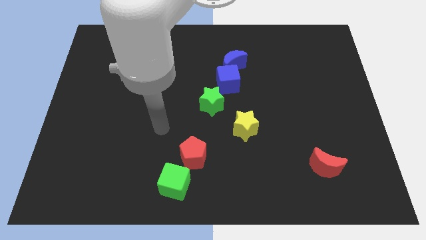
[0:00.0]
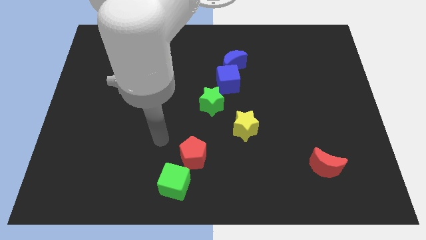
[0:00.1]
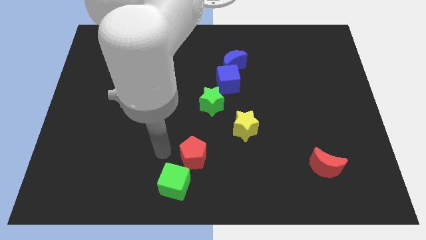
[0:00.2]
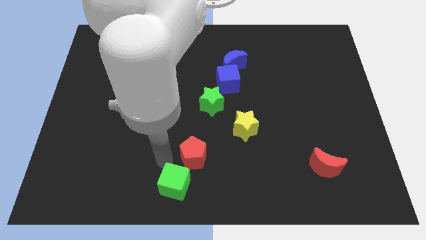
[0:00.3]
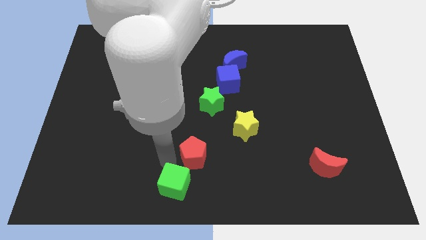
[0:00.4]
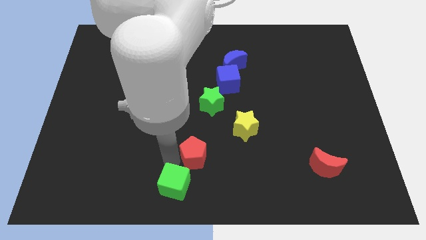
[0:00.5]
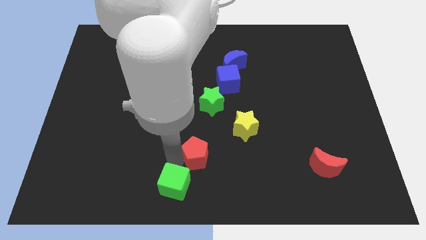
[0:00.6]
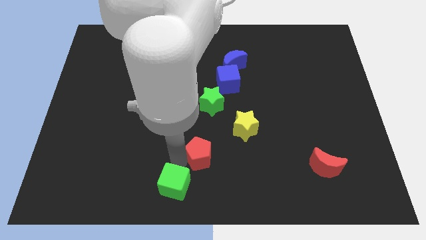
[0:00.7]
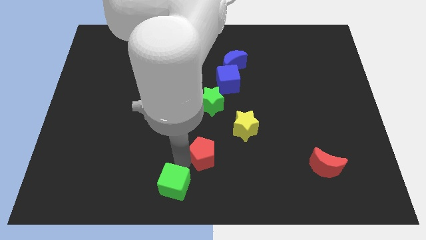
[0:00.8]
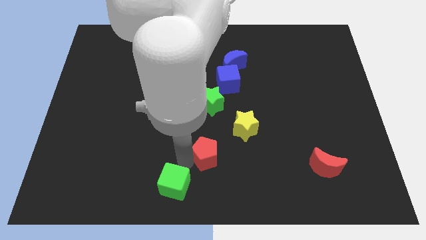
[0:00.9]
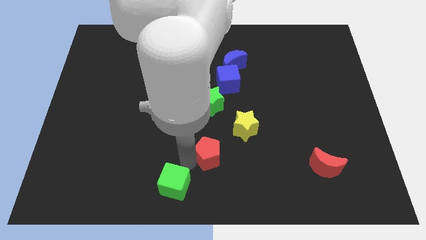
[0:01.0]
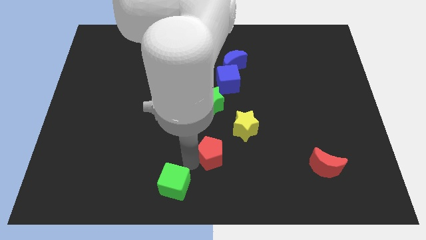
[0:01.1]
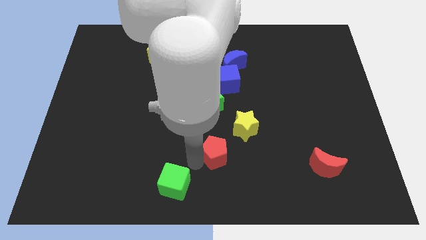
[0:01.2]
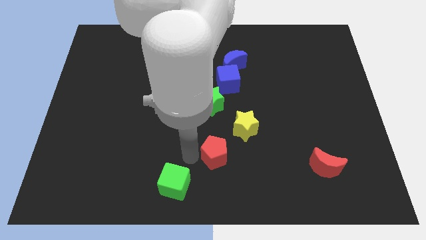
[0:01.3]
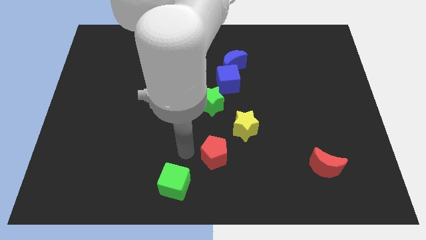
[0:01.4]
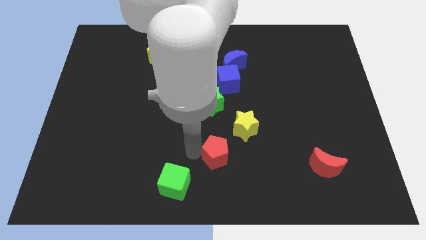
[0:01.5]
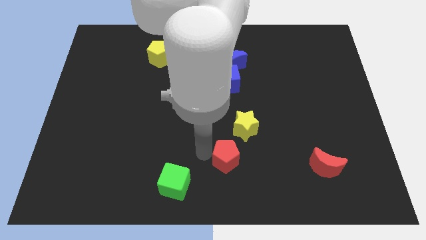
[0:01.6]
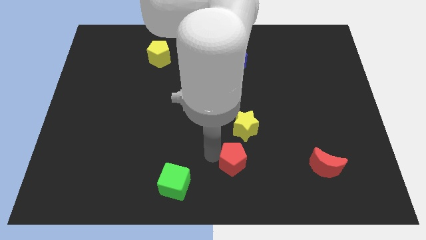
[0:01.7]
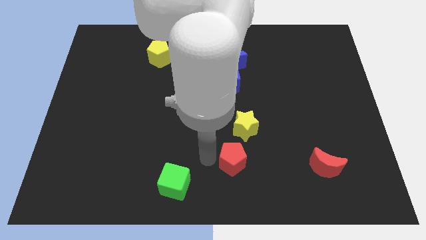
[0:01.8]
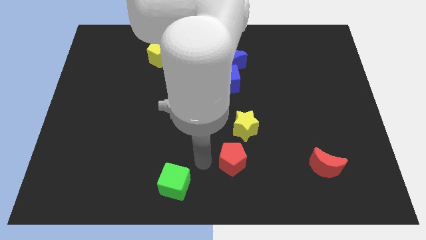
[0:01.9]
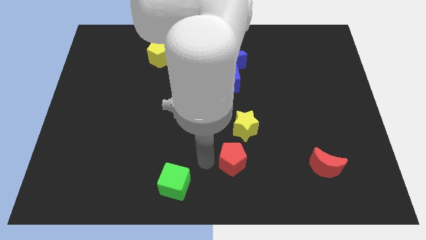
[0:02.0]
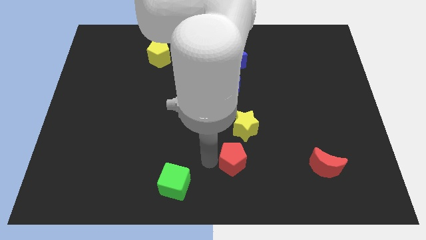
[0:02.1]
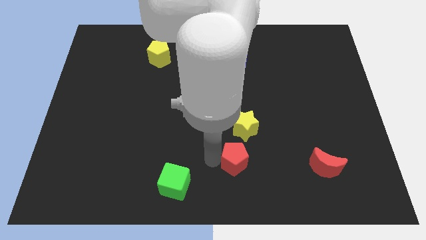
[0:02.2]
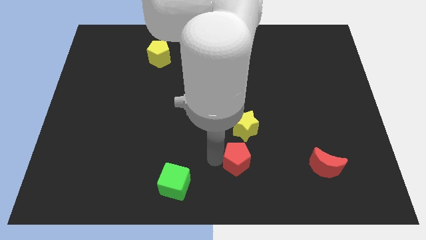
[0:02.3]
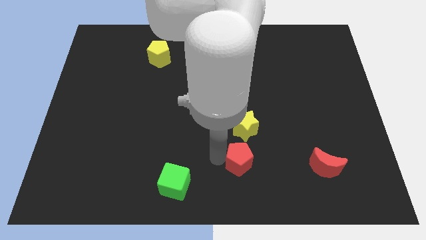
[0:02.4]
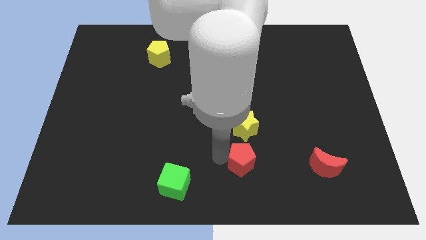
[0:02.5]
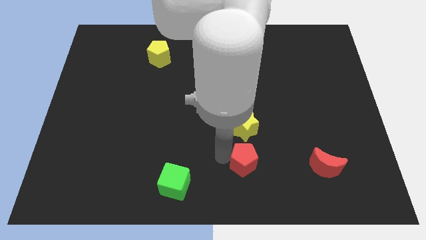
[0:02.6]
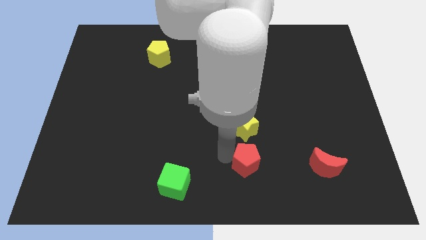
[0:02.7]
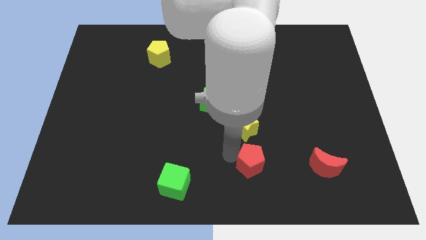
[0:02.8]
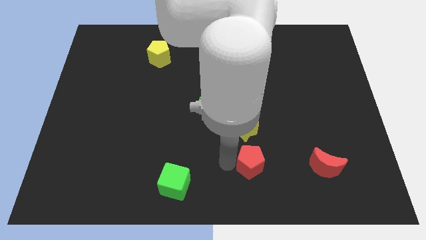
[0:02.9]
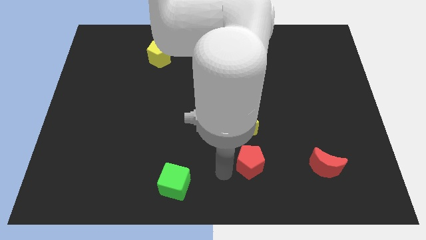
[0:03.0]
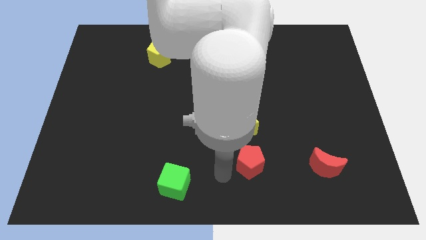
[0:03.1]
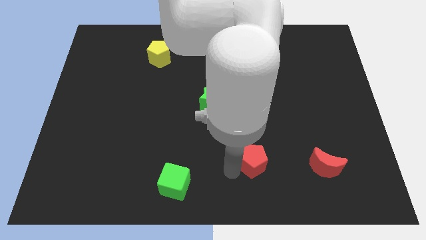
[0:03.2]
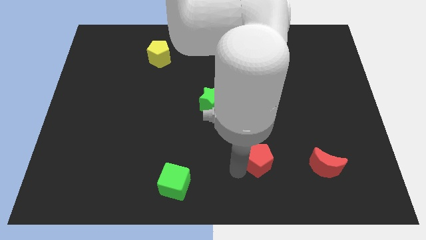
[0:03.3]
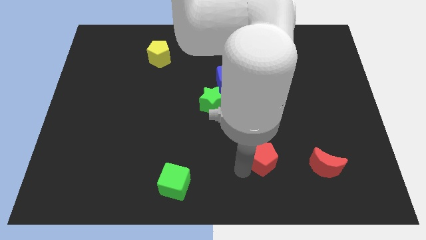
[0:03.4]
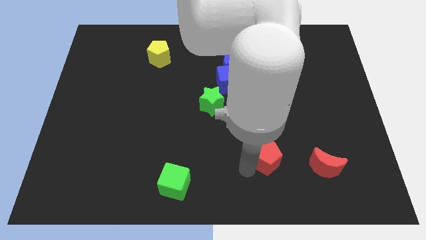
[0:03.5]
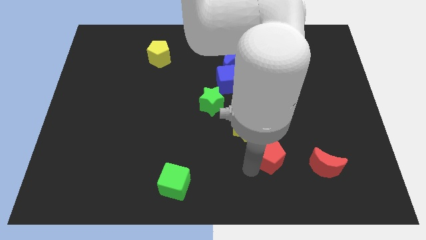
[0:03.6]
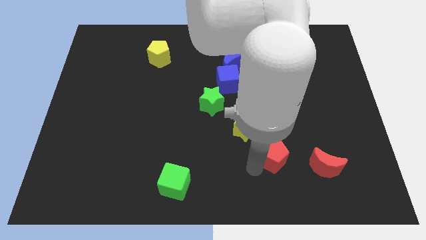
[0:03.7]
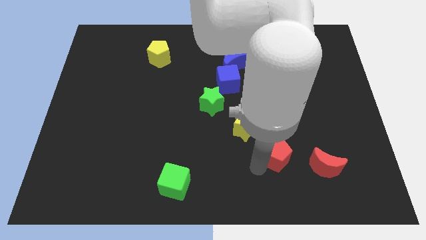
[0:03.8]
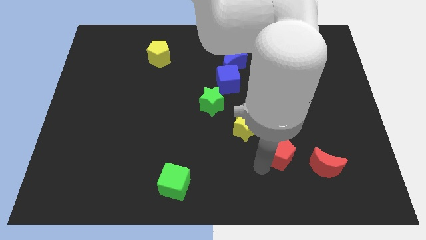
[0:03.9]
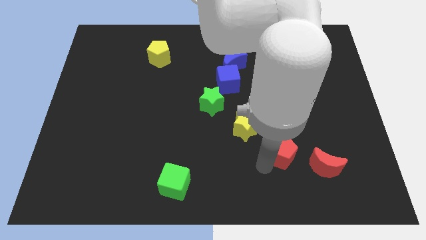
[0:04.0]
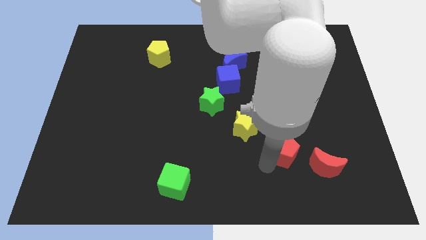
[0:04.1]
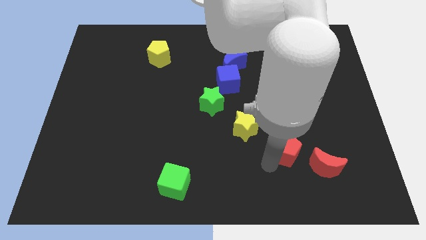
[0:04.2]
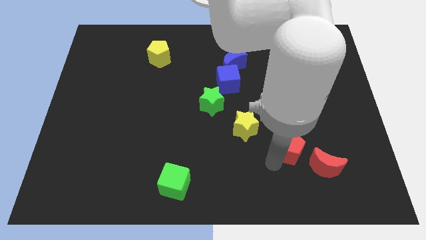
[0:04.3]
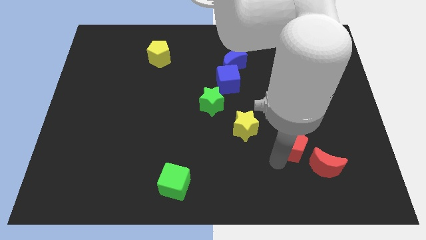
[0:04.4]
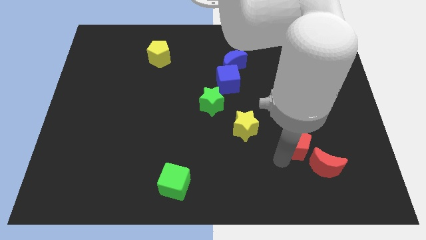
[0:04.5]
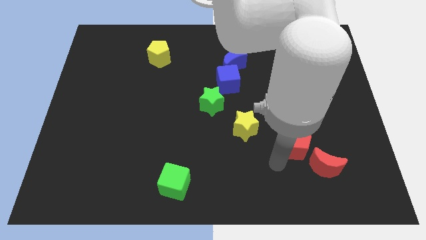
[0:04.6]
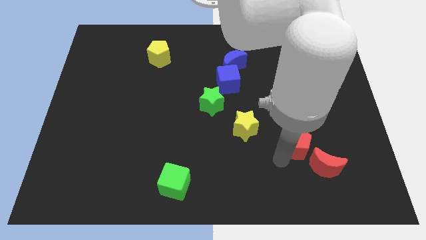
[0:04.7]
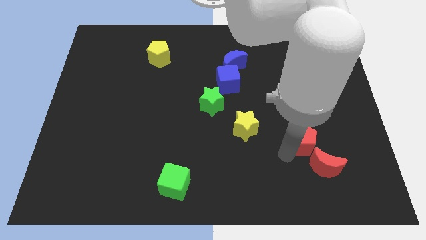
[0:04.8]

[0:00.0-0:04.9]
move the red pentagon to the top of the red moon

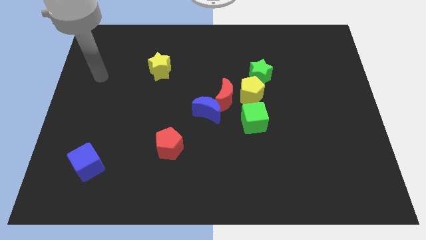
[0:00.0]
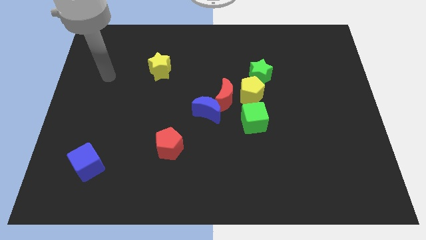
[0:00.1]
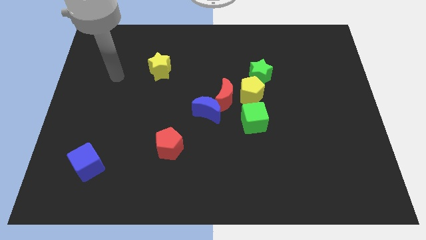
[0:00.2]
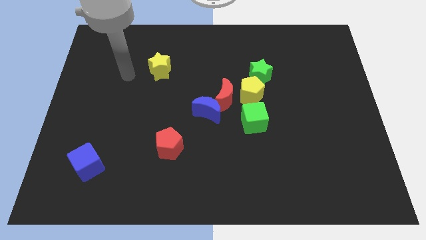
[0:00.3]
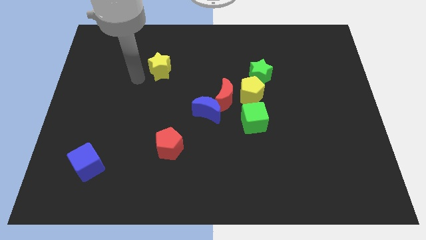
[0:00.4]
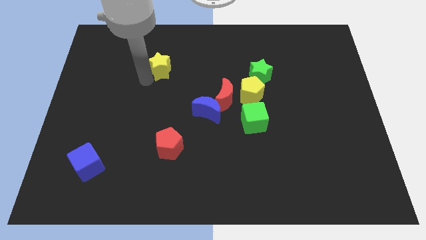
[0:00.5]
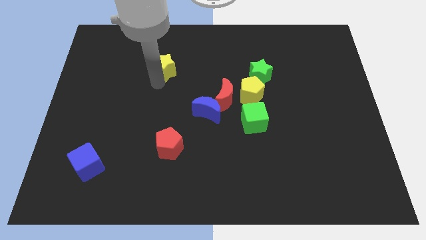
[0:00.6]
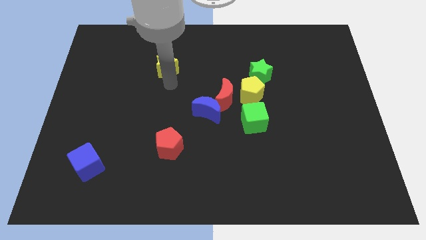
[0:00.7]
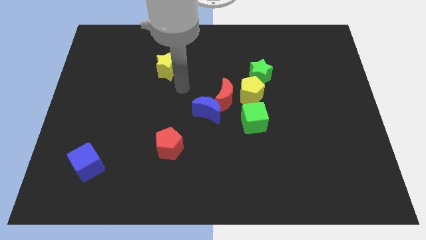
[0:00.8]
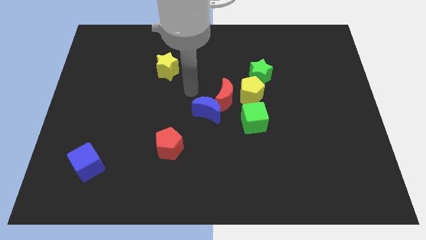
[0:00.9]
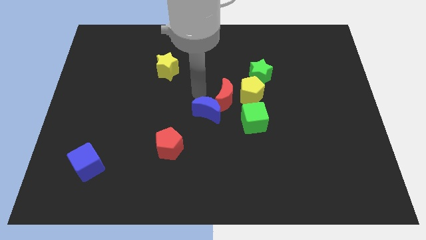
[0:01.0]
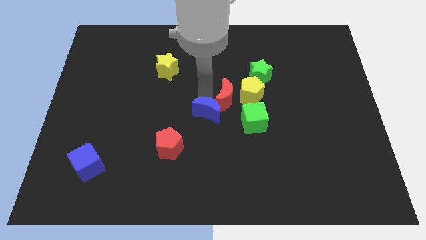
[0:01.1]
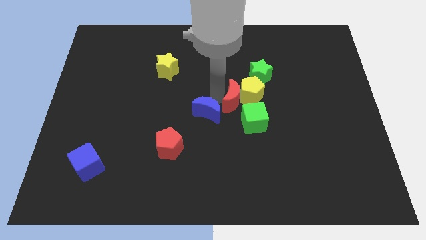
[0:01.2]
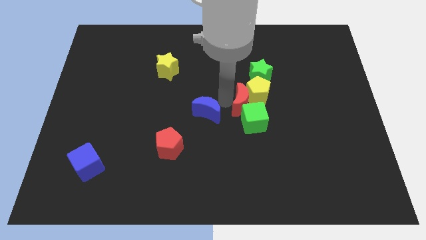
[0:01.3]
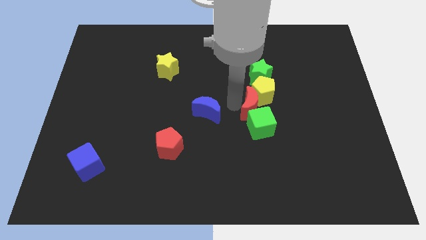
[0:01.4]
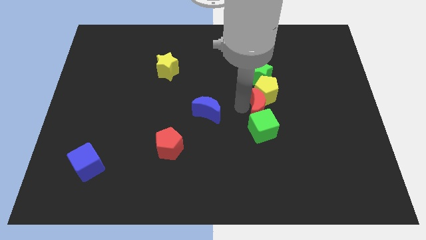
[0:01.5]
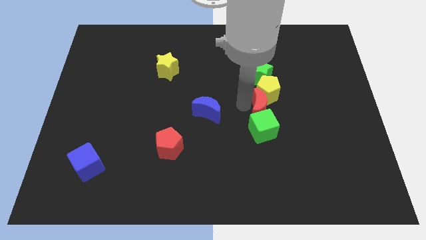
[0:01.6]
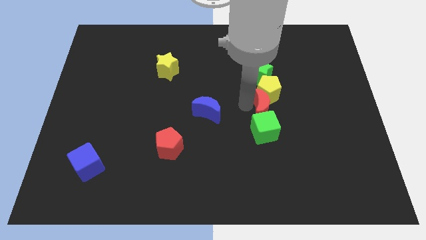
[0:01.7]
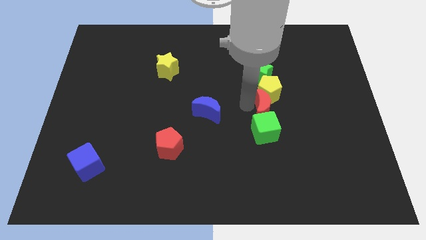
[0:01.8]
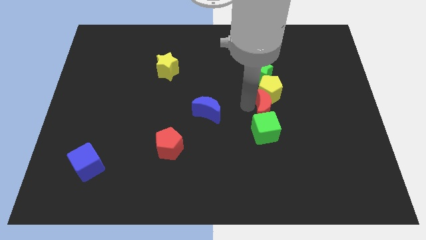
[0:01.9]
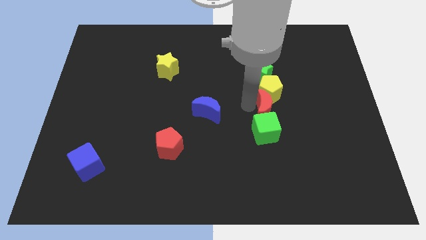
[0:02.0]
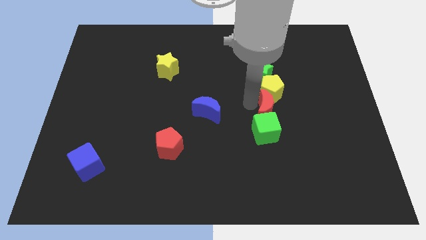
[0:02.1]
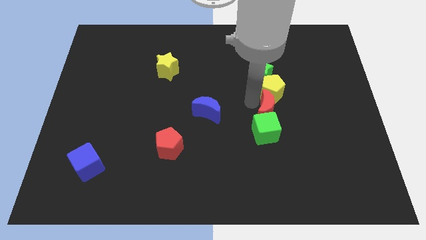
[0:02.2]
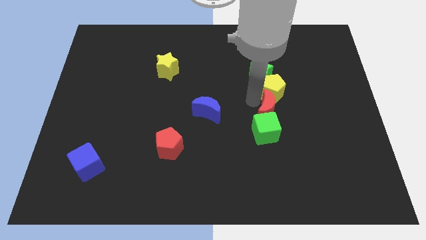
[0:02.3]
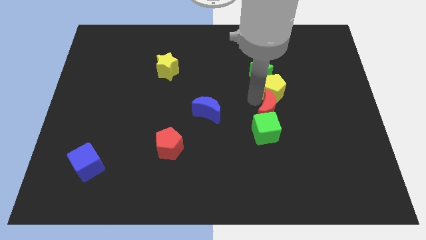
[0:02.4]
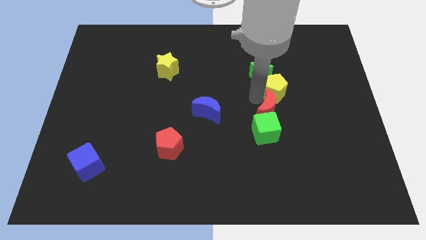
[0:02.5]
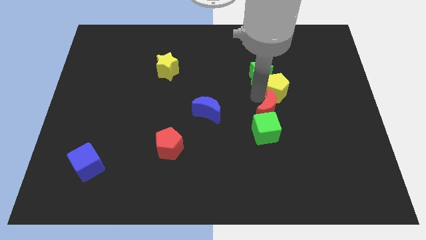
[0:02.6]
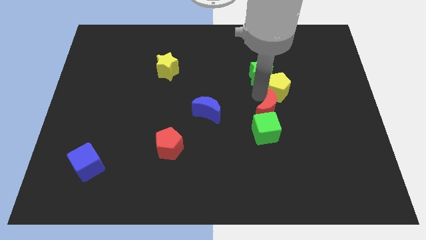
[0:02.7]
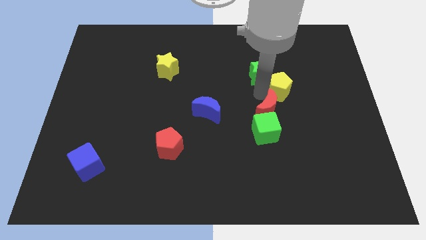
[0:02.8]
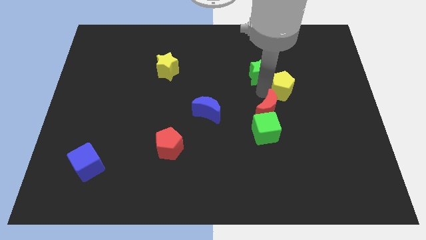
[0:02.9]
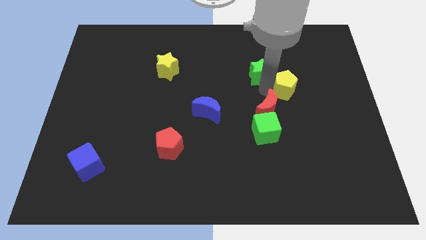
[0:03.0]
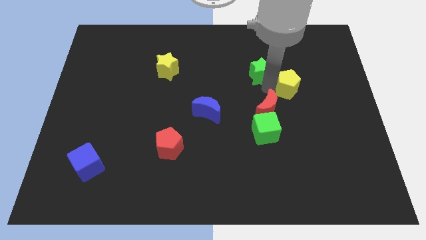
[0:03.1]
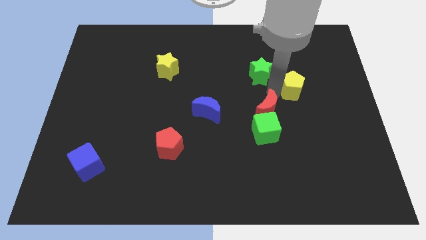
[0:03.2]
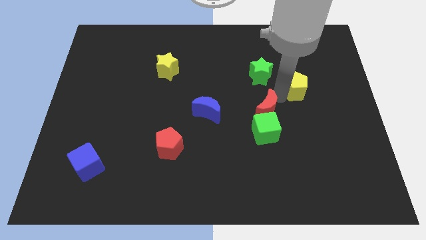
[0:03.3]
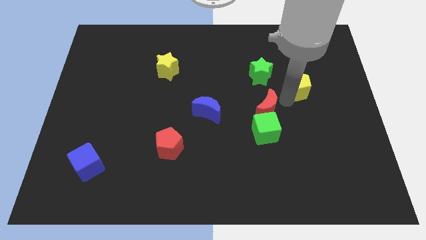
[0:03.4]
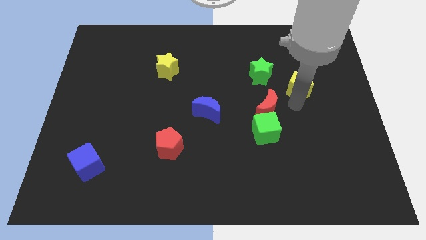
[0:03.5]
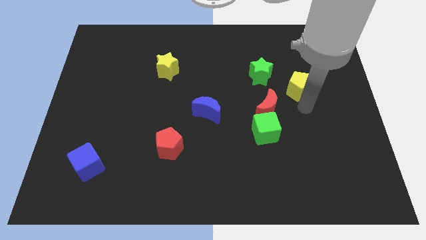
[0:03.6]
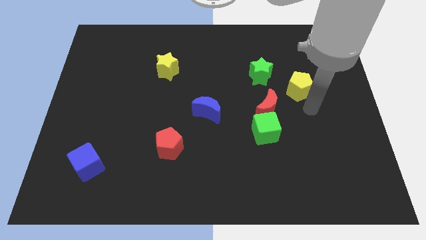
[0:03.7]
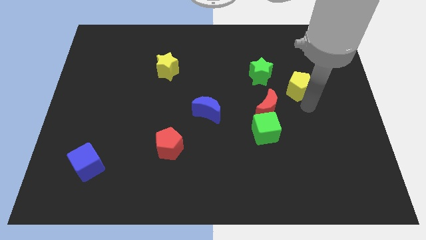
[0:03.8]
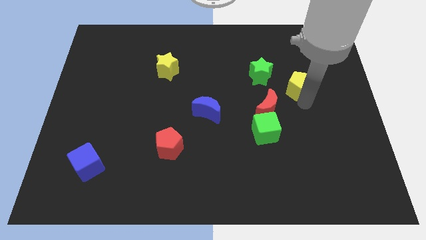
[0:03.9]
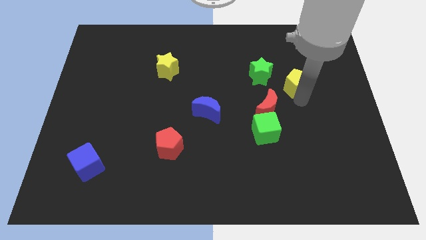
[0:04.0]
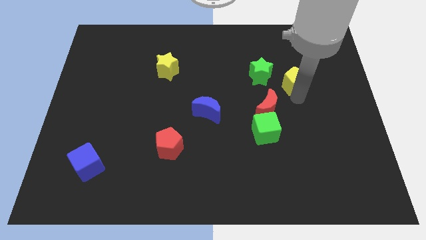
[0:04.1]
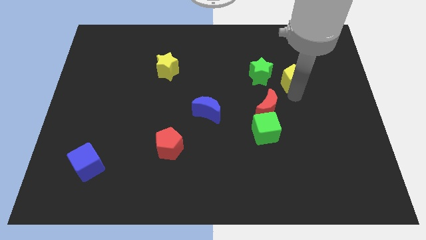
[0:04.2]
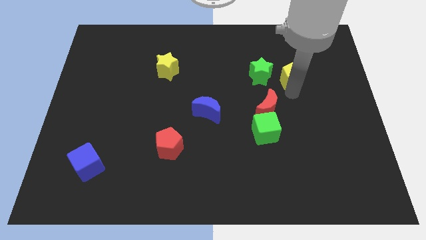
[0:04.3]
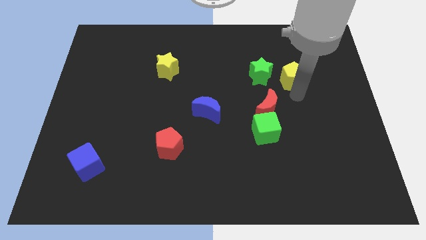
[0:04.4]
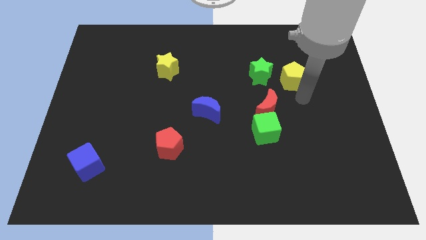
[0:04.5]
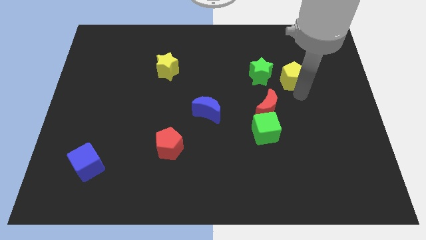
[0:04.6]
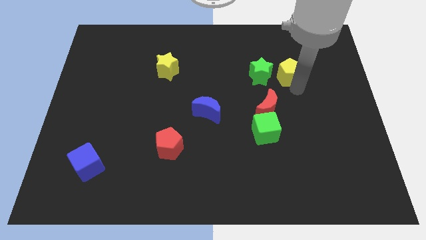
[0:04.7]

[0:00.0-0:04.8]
slide the yellow pentagon diagonally up and to the right of the green star
